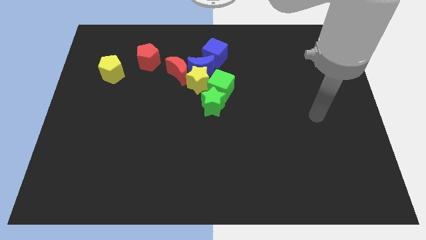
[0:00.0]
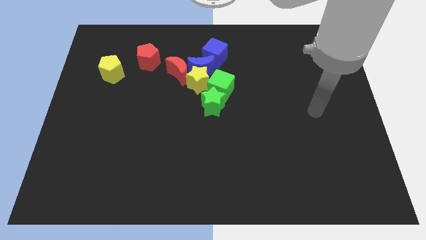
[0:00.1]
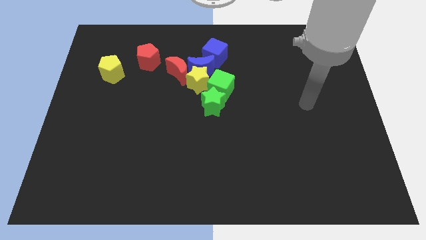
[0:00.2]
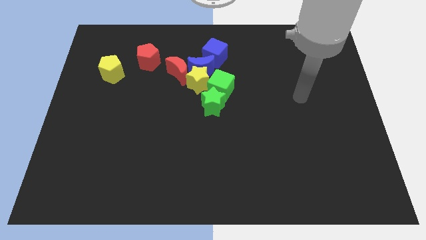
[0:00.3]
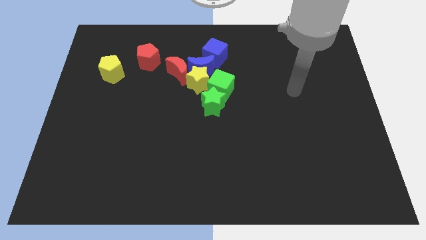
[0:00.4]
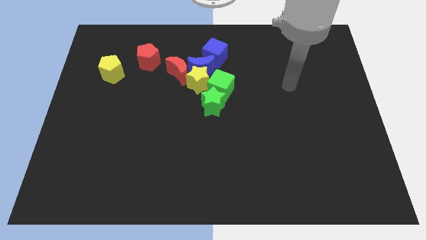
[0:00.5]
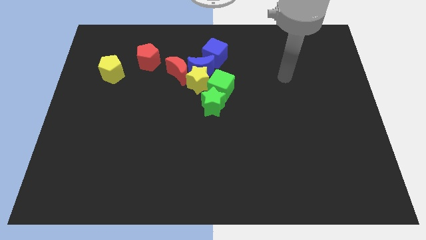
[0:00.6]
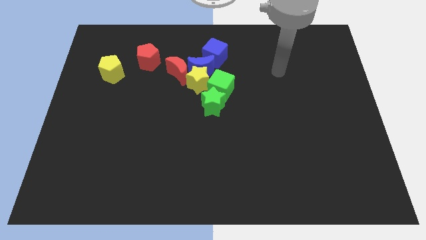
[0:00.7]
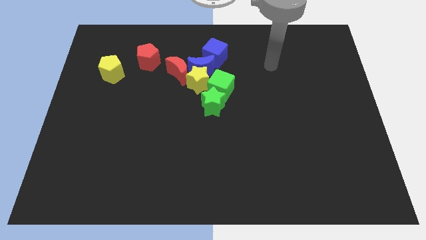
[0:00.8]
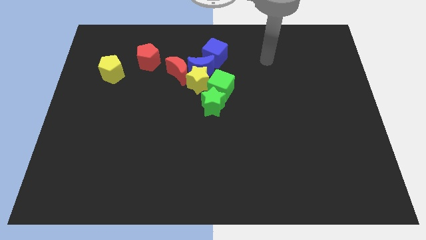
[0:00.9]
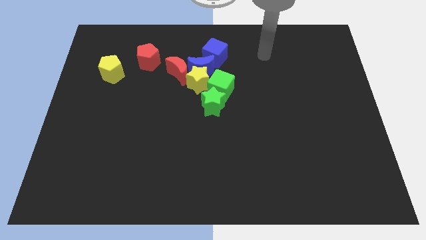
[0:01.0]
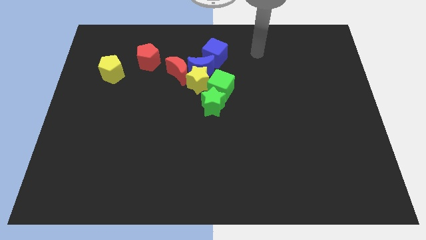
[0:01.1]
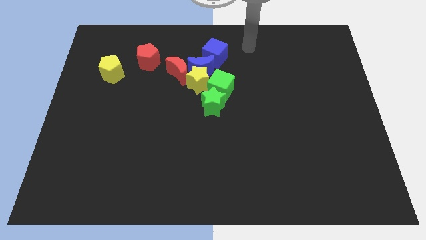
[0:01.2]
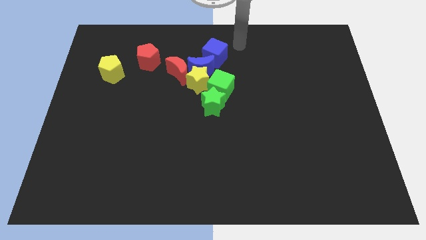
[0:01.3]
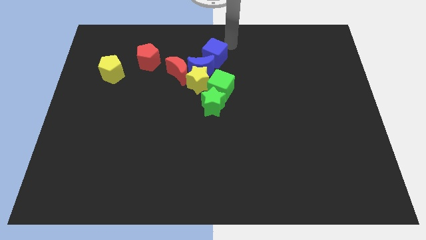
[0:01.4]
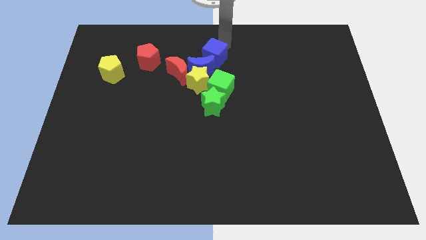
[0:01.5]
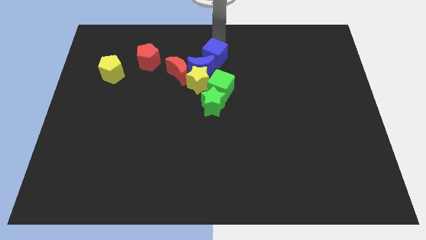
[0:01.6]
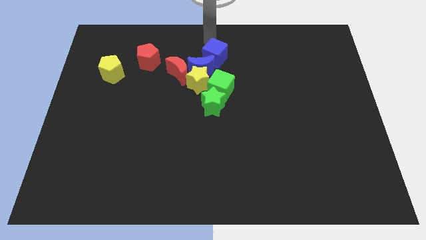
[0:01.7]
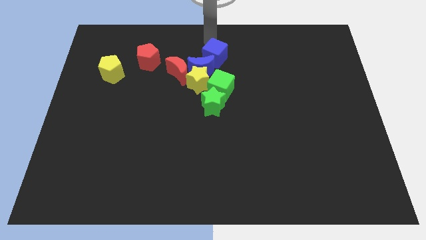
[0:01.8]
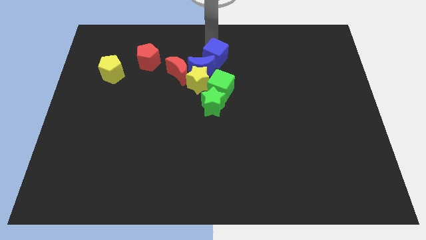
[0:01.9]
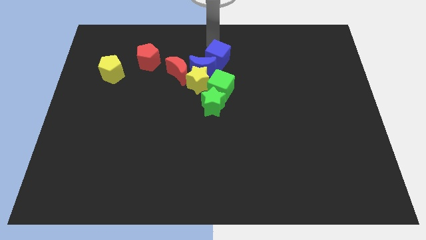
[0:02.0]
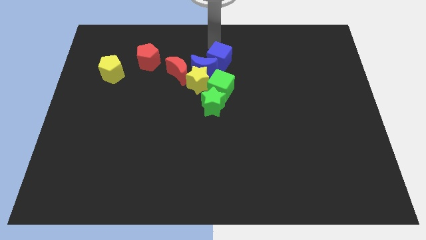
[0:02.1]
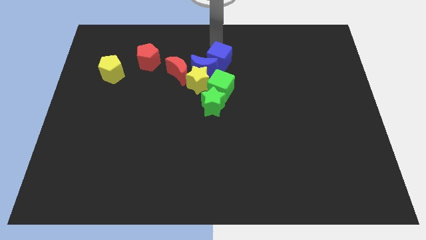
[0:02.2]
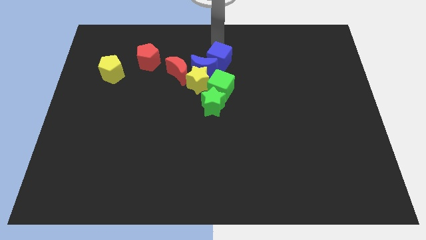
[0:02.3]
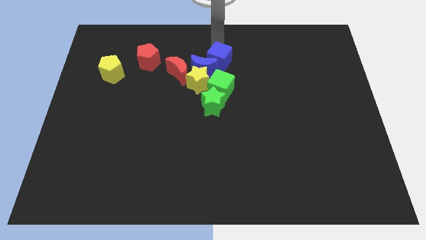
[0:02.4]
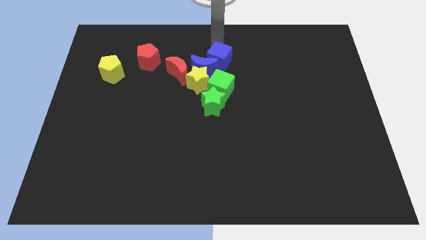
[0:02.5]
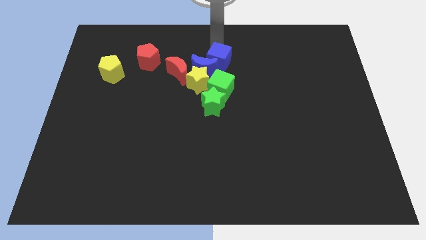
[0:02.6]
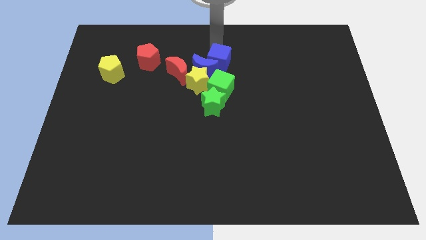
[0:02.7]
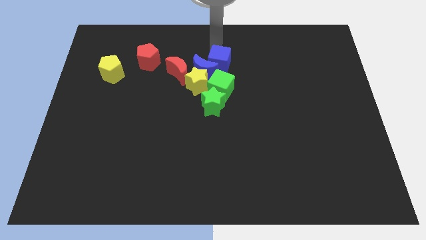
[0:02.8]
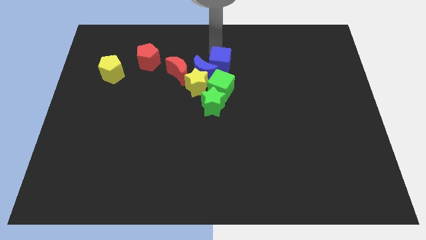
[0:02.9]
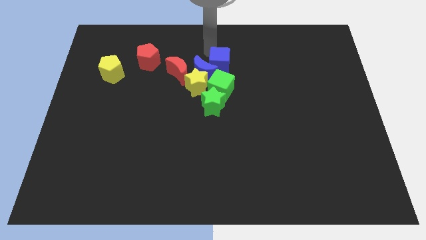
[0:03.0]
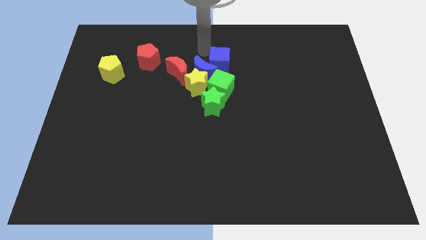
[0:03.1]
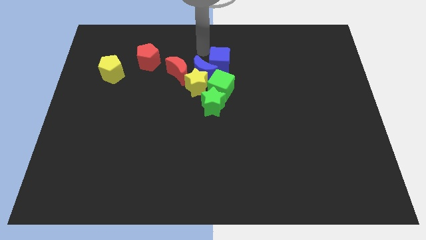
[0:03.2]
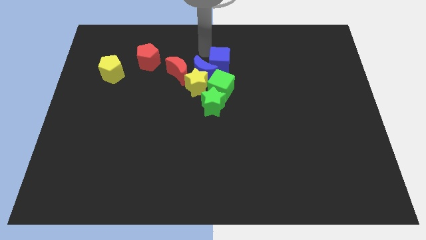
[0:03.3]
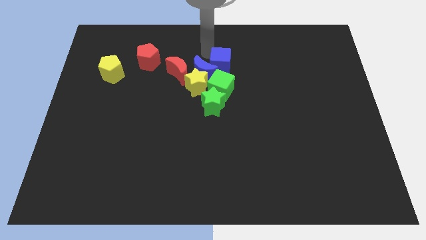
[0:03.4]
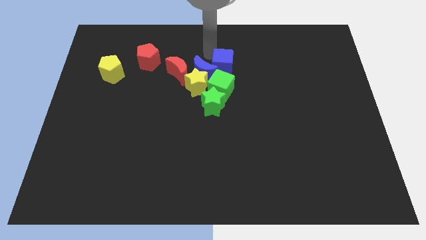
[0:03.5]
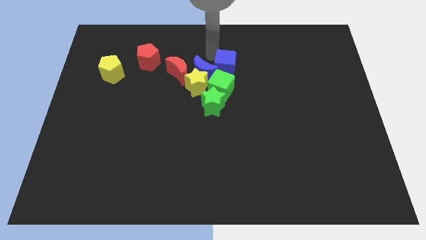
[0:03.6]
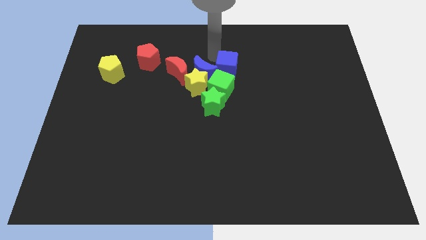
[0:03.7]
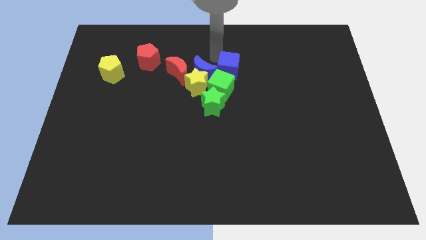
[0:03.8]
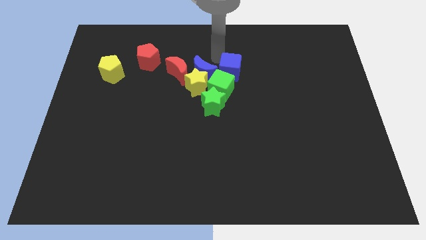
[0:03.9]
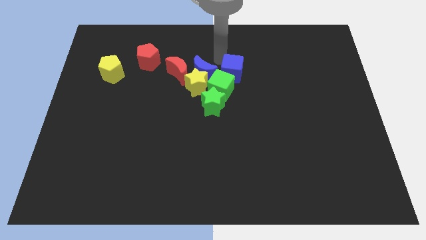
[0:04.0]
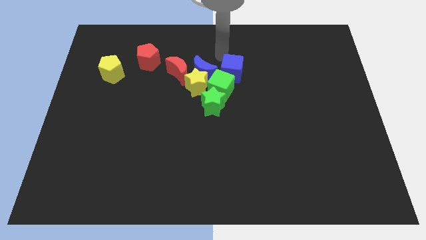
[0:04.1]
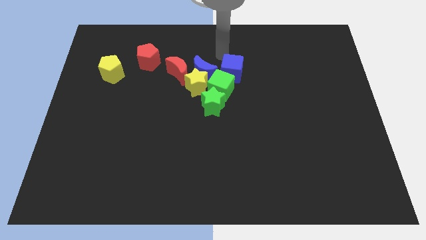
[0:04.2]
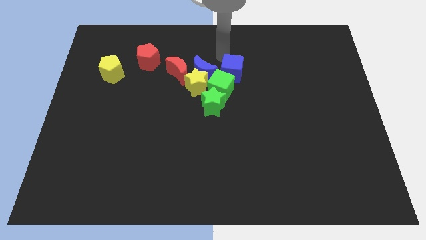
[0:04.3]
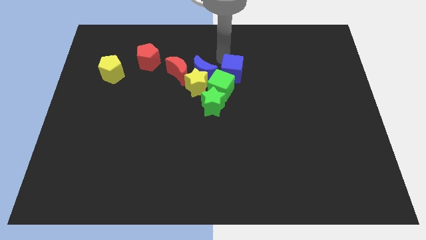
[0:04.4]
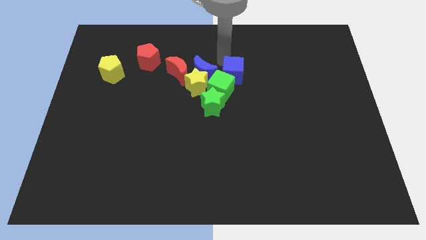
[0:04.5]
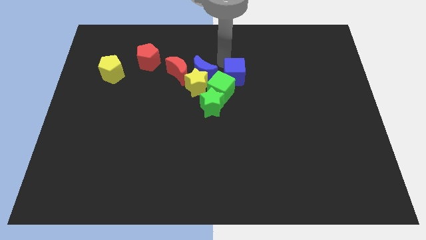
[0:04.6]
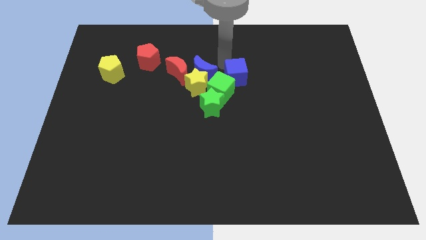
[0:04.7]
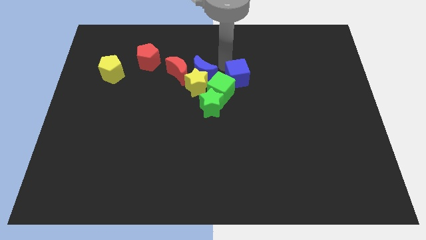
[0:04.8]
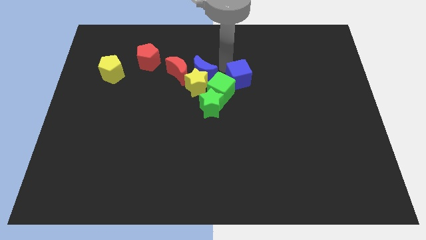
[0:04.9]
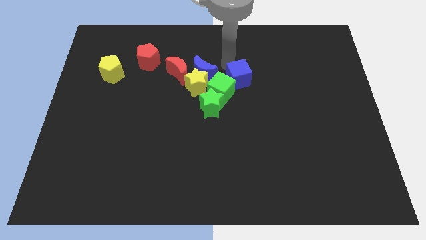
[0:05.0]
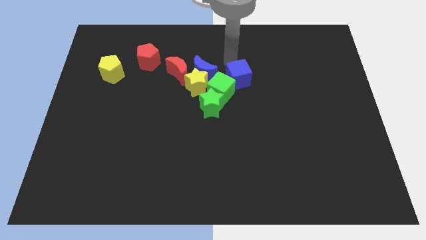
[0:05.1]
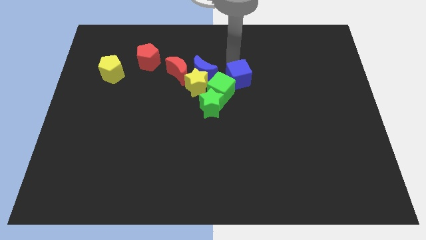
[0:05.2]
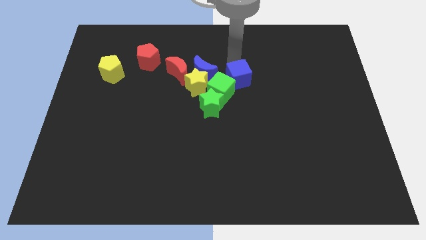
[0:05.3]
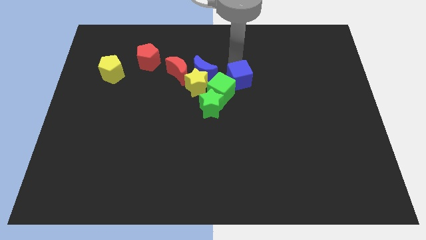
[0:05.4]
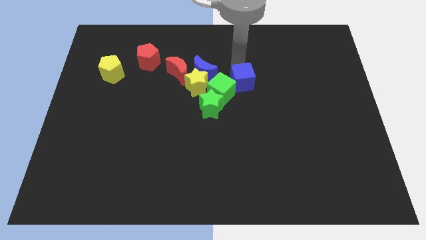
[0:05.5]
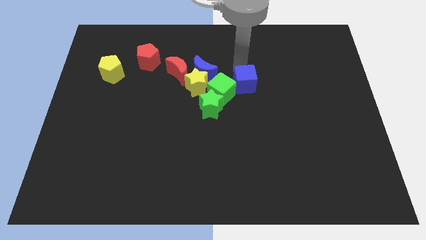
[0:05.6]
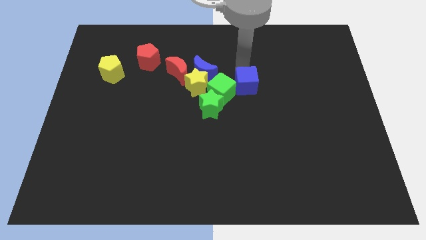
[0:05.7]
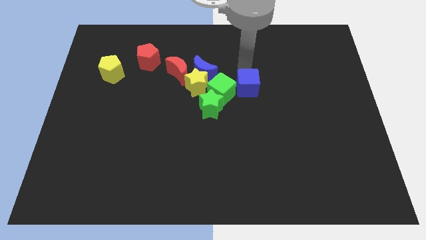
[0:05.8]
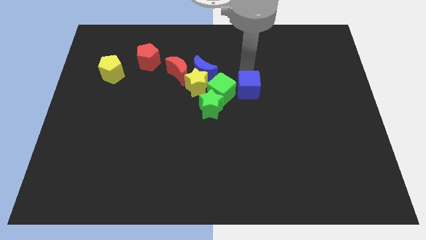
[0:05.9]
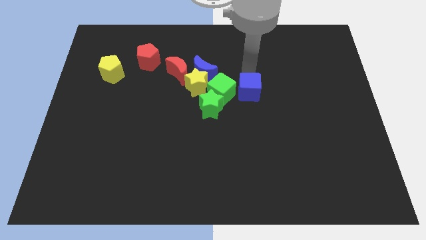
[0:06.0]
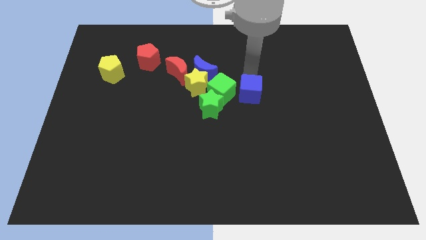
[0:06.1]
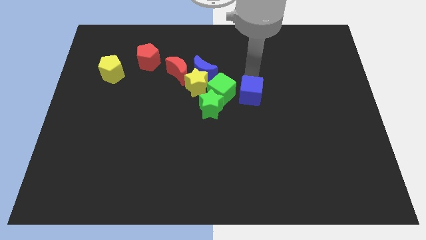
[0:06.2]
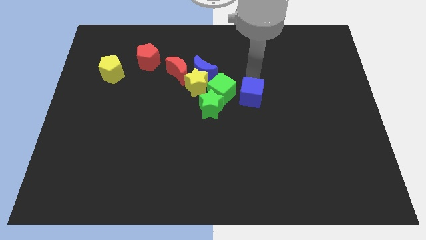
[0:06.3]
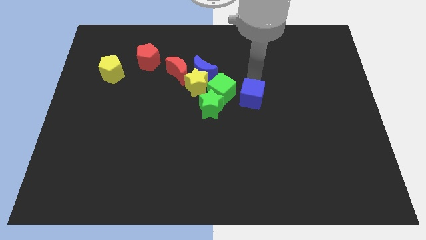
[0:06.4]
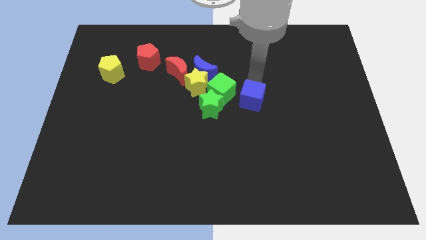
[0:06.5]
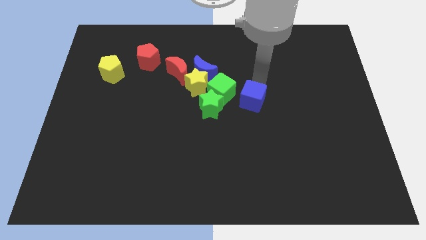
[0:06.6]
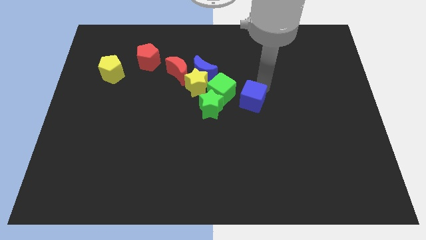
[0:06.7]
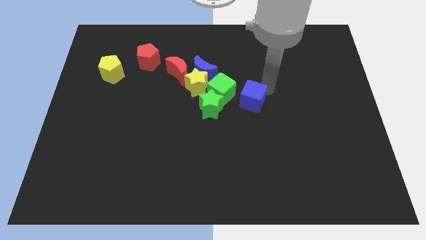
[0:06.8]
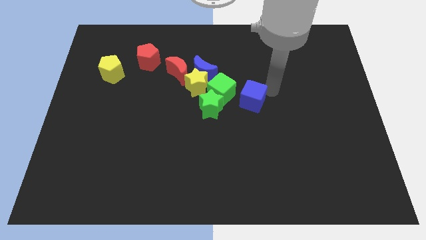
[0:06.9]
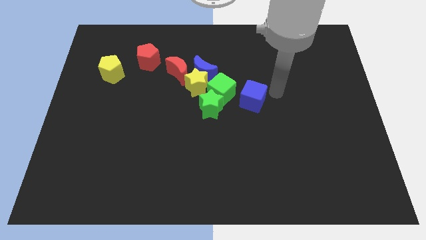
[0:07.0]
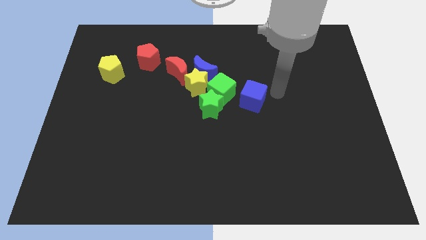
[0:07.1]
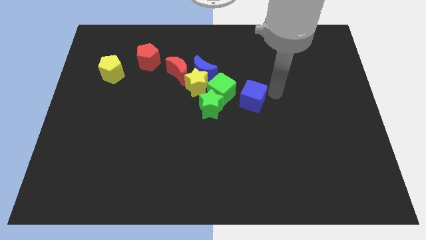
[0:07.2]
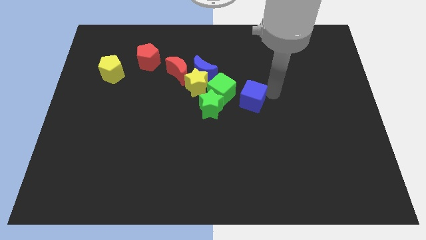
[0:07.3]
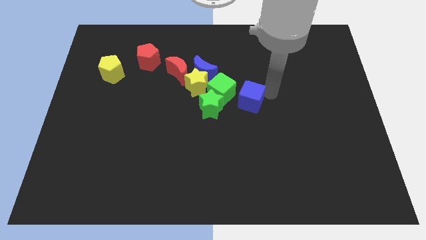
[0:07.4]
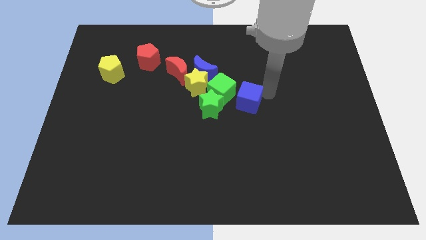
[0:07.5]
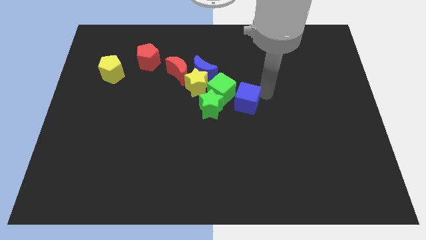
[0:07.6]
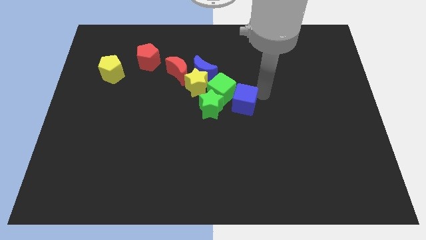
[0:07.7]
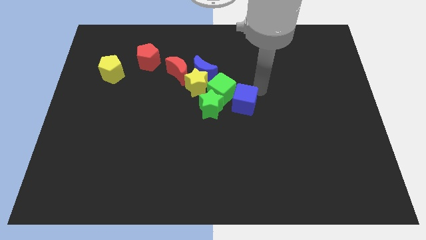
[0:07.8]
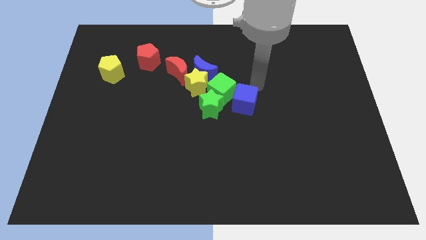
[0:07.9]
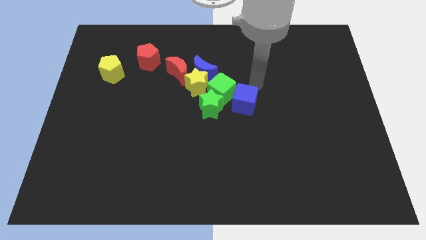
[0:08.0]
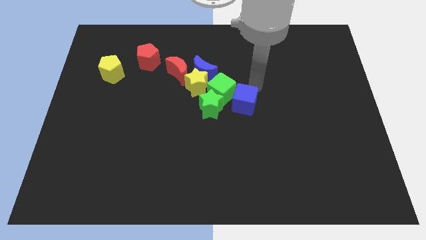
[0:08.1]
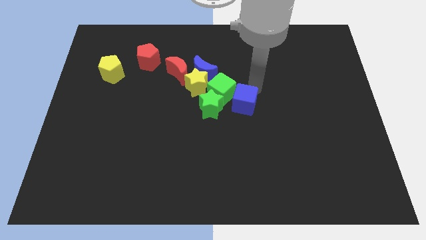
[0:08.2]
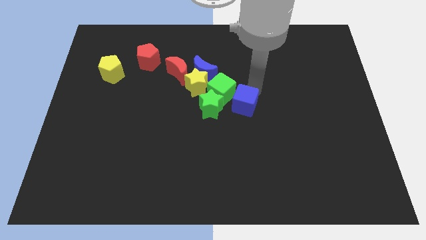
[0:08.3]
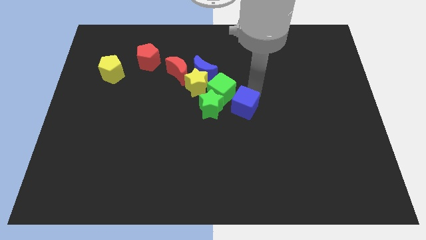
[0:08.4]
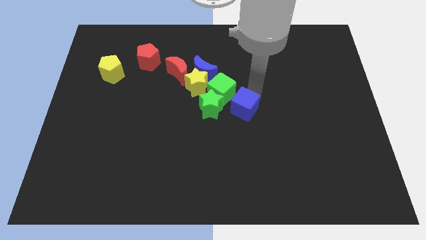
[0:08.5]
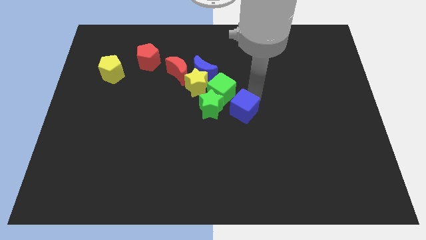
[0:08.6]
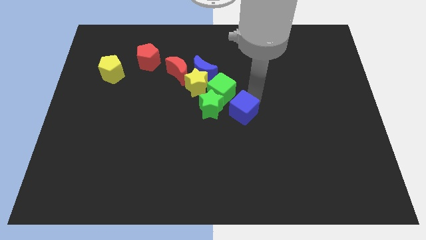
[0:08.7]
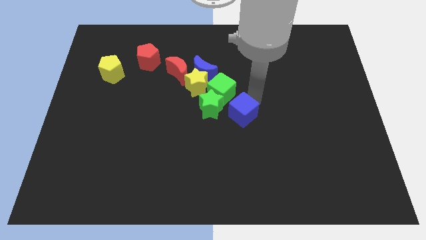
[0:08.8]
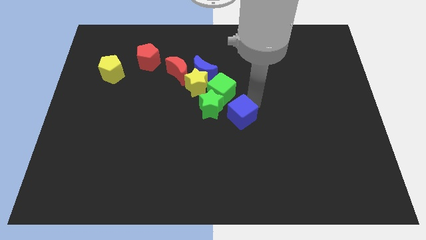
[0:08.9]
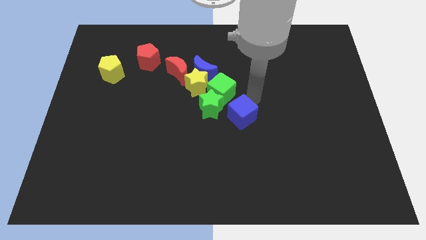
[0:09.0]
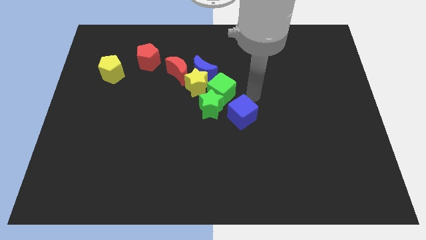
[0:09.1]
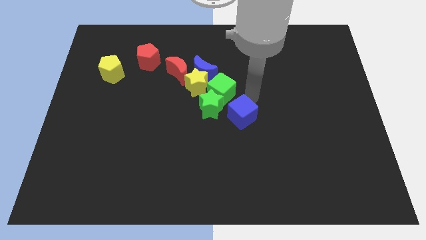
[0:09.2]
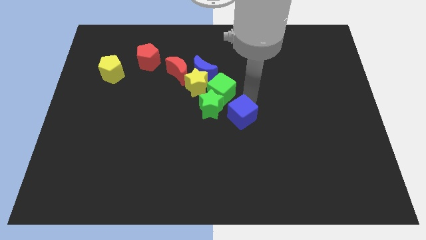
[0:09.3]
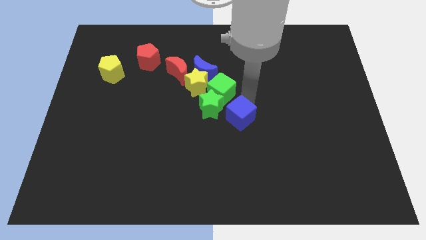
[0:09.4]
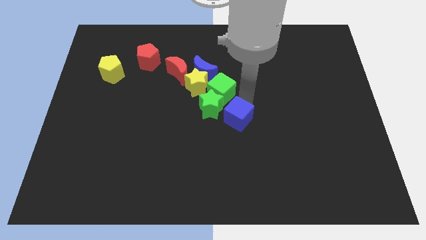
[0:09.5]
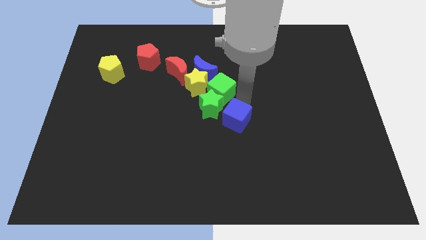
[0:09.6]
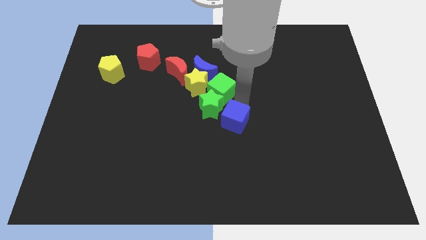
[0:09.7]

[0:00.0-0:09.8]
move the blue cube downwards
